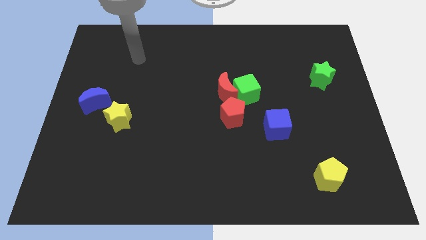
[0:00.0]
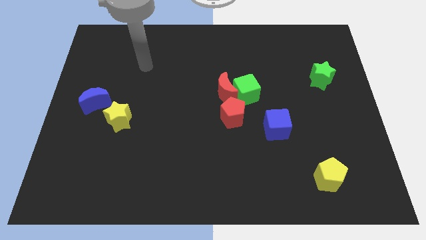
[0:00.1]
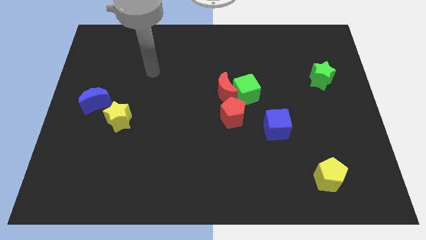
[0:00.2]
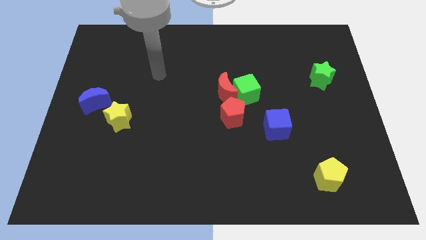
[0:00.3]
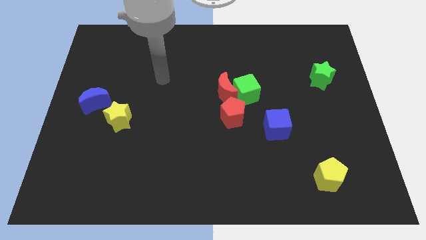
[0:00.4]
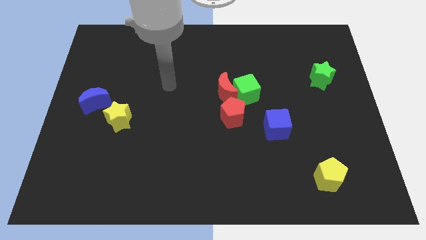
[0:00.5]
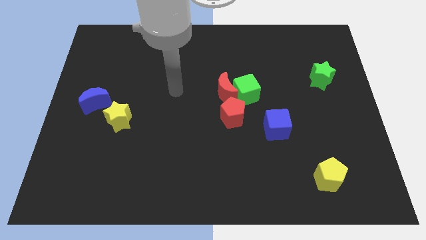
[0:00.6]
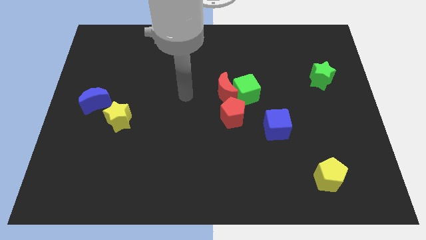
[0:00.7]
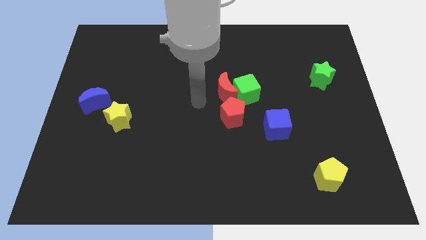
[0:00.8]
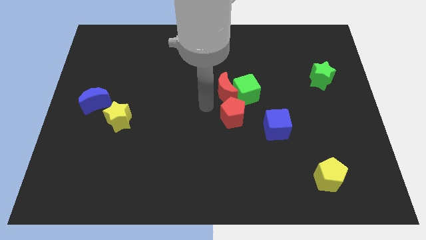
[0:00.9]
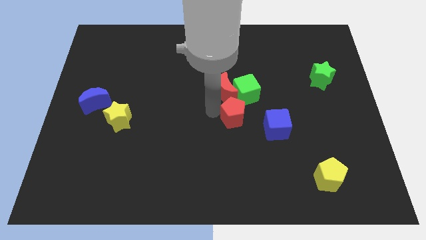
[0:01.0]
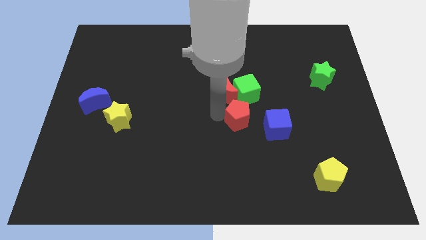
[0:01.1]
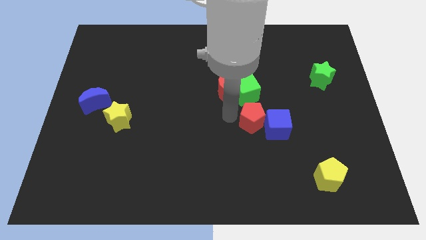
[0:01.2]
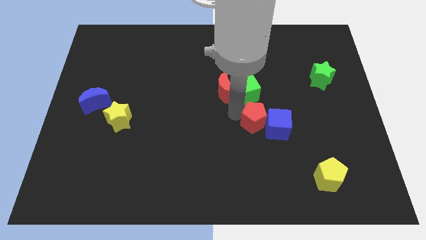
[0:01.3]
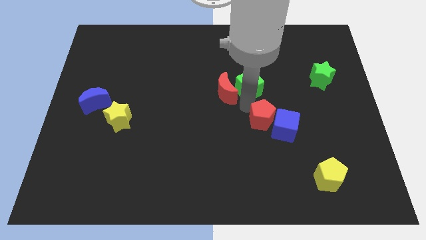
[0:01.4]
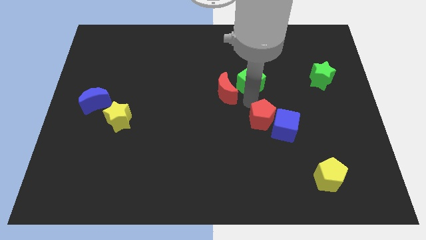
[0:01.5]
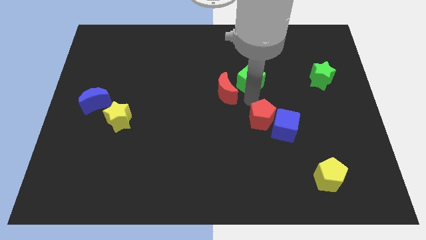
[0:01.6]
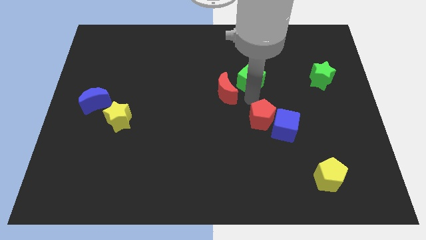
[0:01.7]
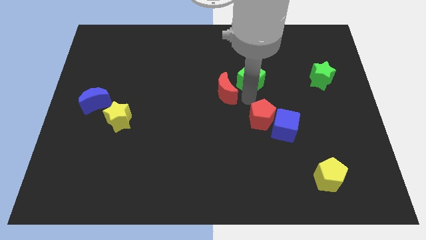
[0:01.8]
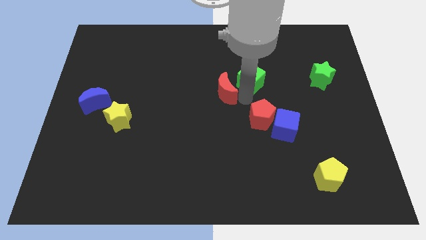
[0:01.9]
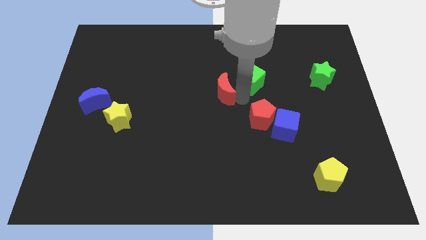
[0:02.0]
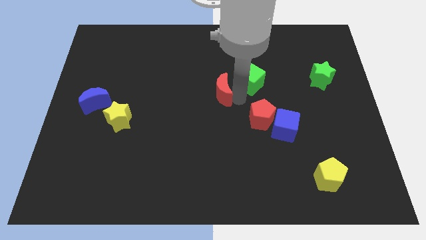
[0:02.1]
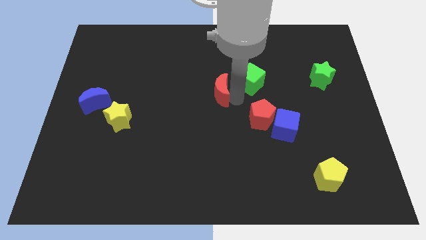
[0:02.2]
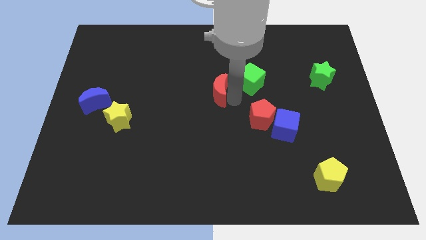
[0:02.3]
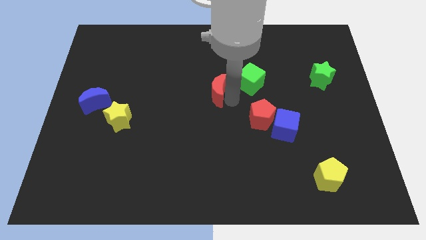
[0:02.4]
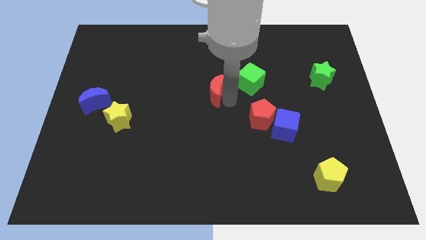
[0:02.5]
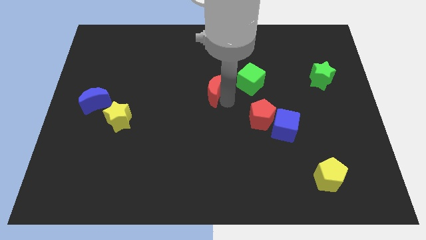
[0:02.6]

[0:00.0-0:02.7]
separate the red moon from the green cube and red pentagon

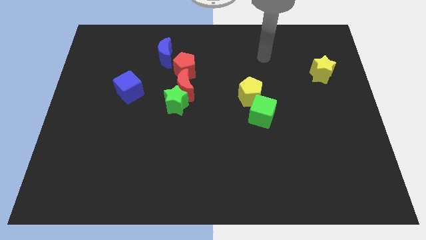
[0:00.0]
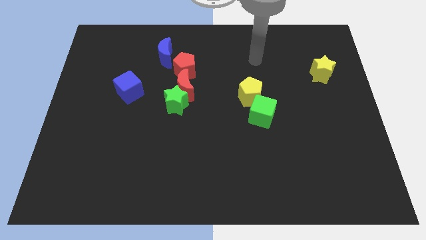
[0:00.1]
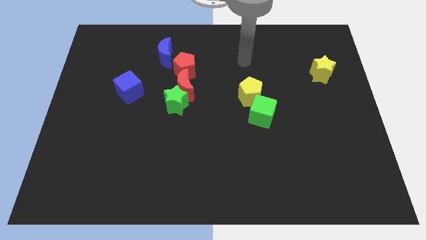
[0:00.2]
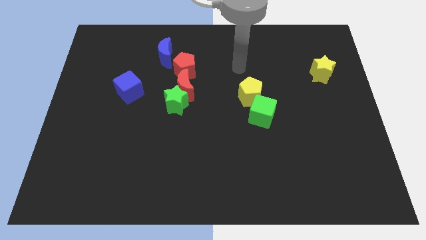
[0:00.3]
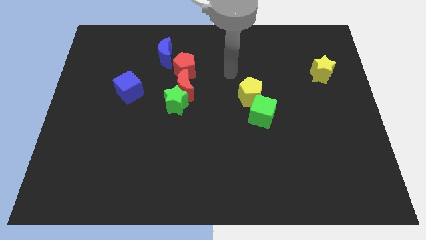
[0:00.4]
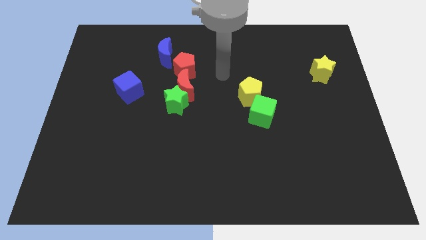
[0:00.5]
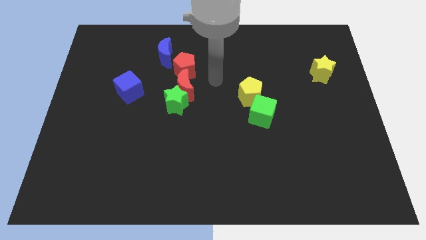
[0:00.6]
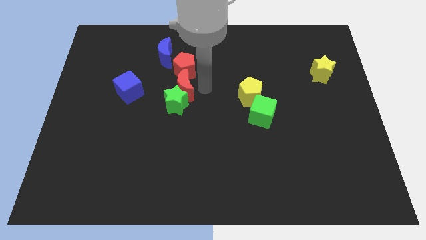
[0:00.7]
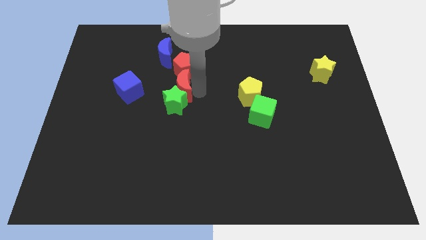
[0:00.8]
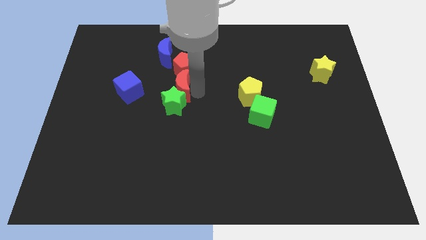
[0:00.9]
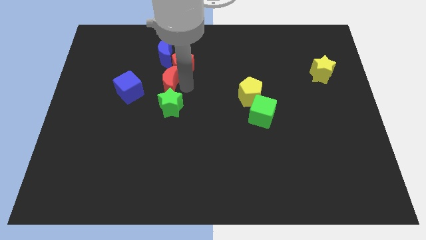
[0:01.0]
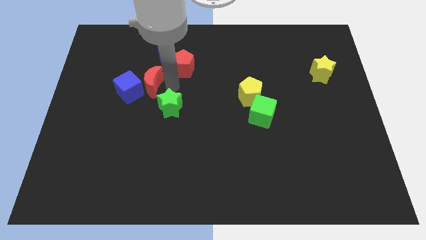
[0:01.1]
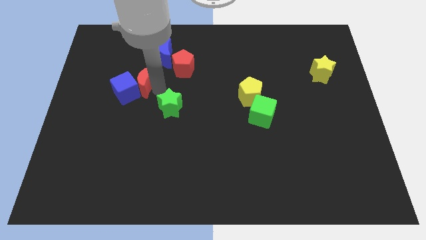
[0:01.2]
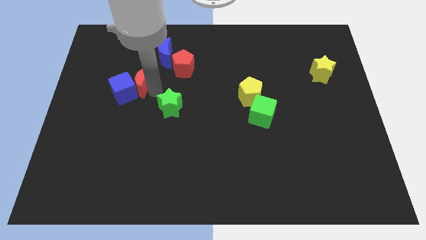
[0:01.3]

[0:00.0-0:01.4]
separate the green star from the red moon

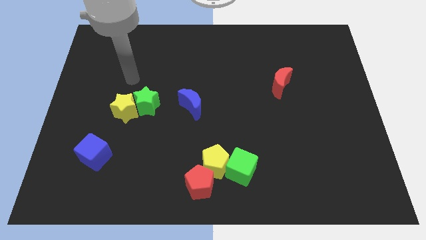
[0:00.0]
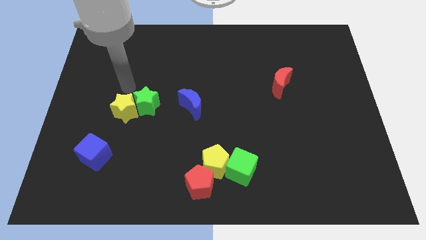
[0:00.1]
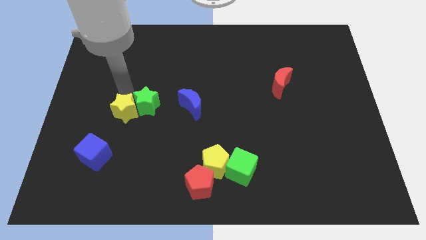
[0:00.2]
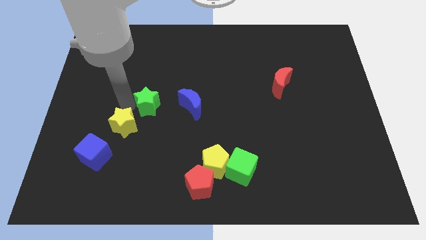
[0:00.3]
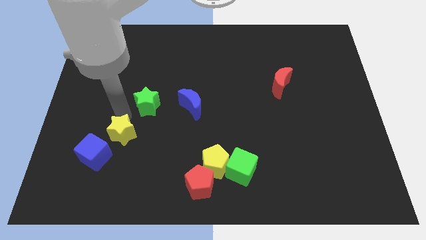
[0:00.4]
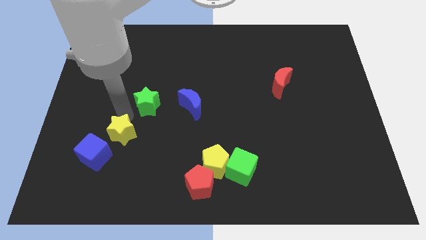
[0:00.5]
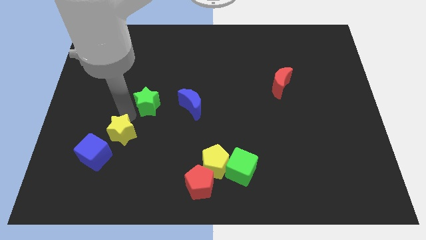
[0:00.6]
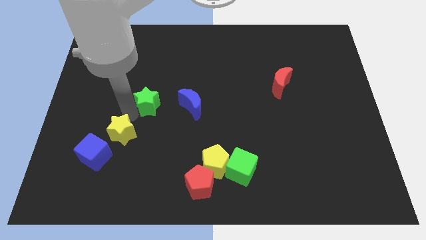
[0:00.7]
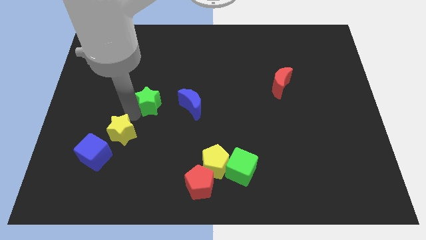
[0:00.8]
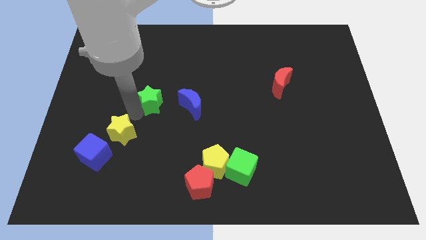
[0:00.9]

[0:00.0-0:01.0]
separate the green star from the yellow star

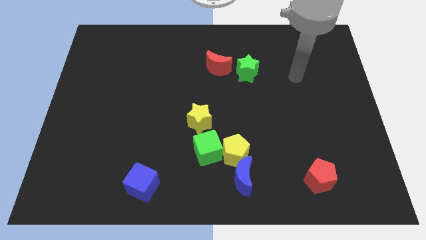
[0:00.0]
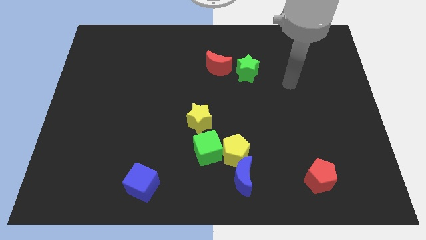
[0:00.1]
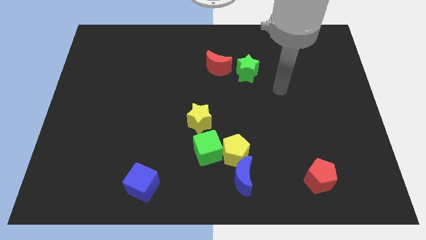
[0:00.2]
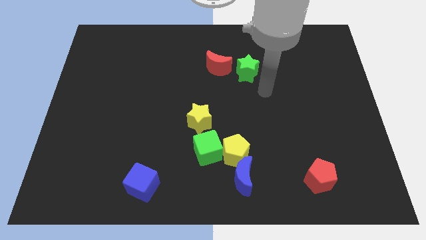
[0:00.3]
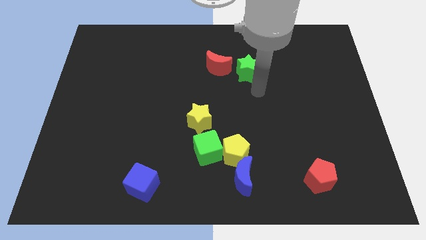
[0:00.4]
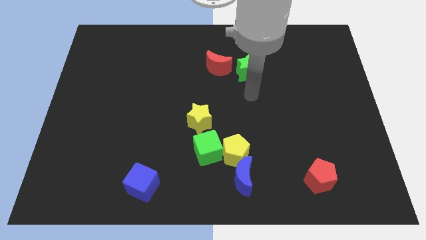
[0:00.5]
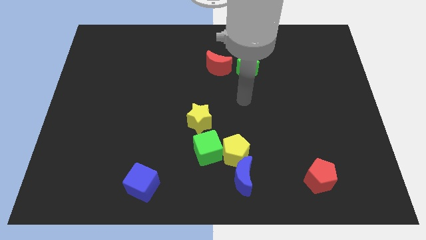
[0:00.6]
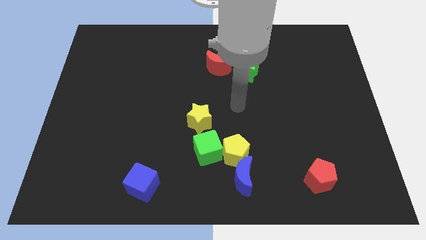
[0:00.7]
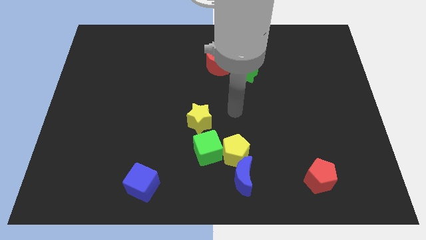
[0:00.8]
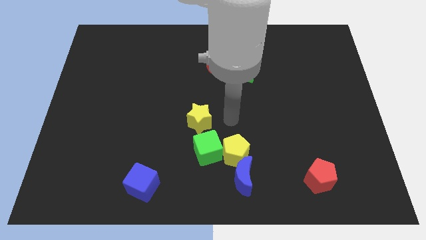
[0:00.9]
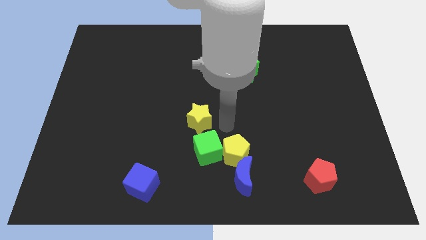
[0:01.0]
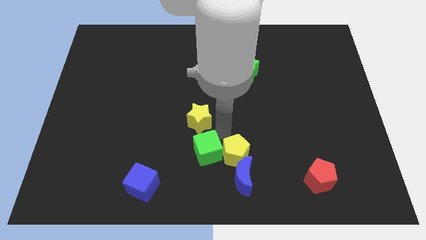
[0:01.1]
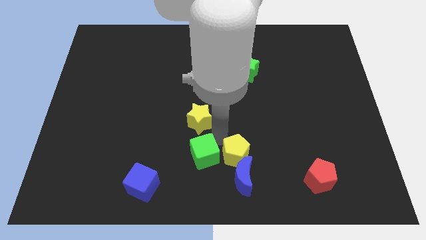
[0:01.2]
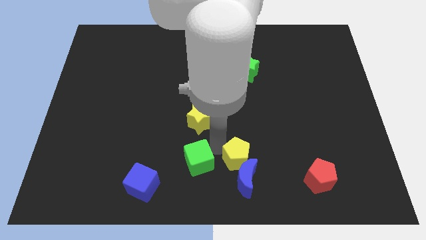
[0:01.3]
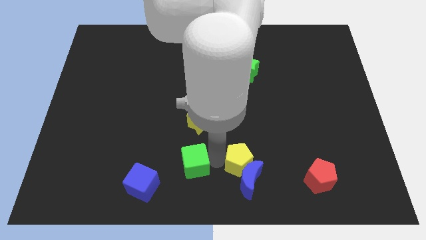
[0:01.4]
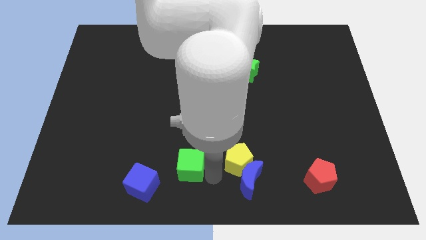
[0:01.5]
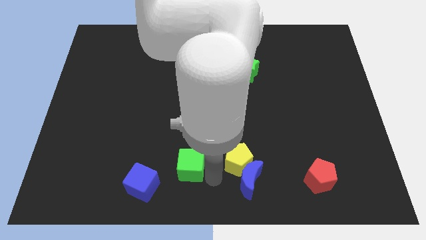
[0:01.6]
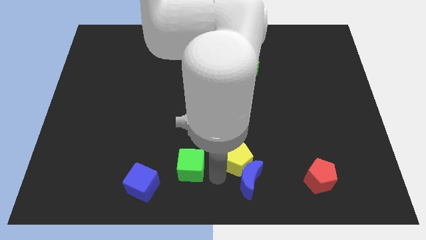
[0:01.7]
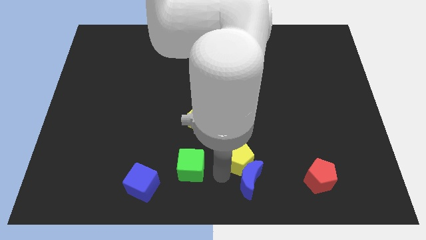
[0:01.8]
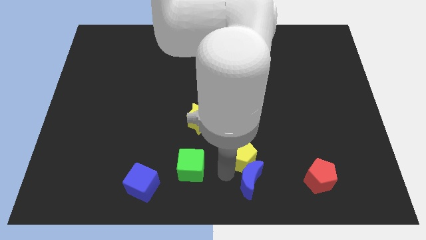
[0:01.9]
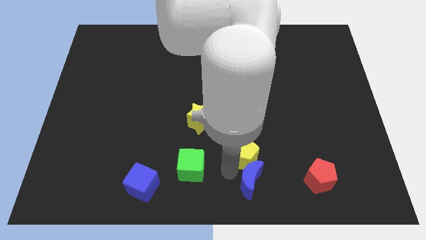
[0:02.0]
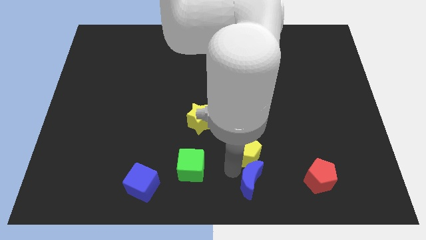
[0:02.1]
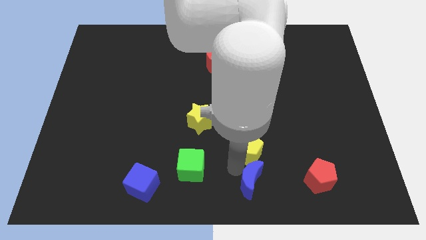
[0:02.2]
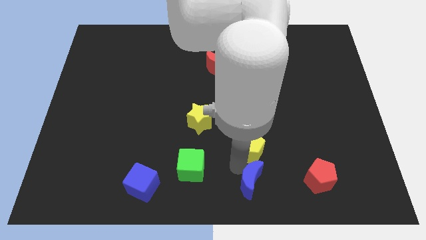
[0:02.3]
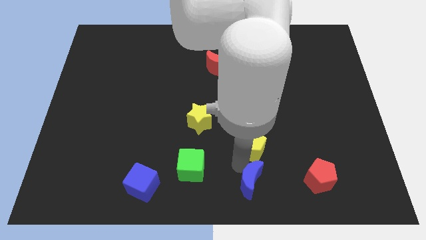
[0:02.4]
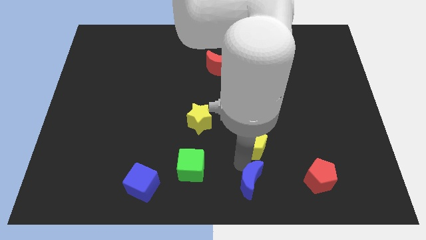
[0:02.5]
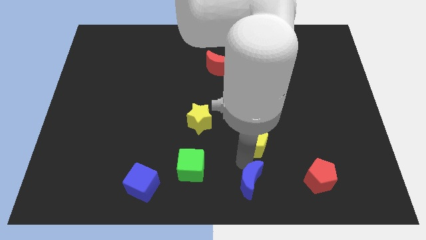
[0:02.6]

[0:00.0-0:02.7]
move the yellow pentagon away from the green cube and blue moon

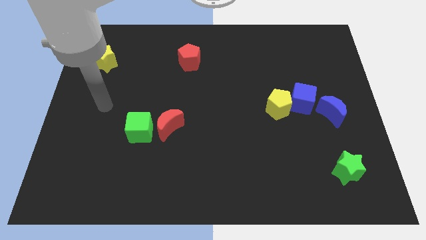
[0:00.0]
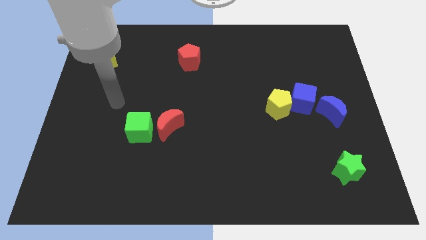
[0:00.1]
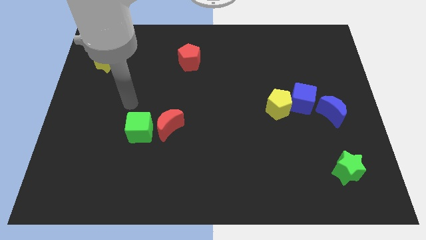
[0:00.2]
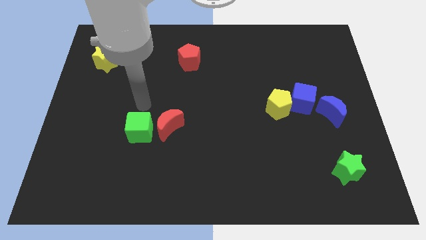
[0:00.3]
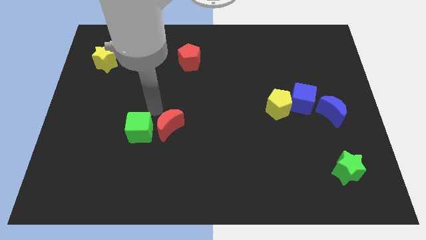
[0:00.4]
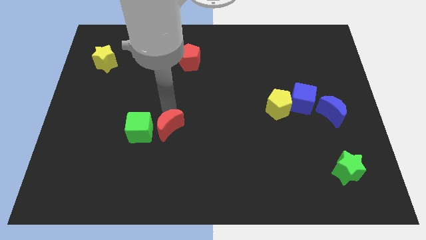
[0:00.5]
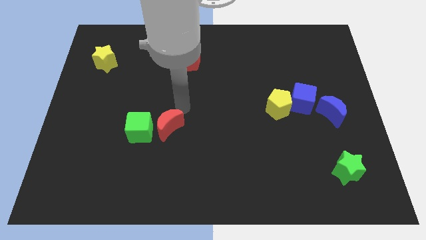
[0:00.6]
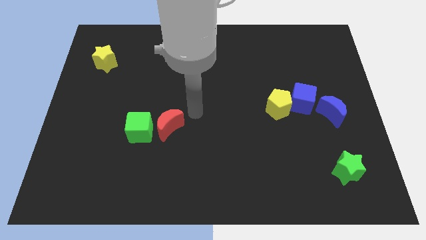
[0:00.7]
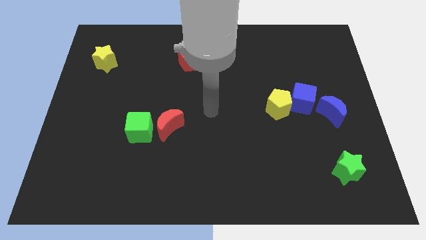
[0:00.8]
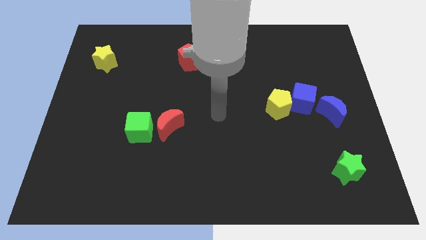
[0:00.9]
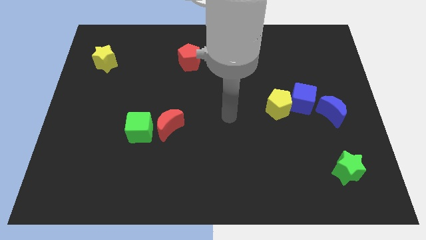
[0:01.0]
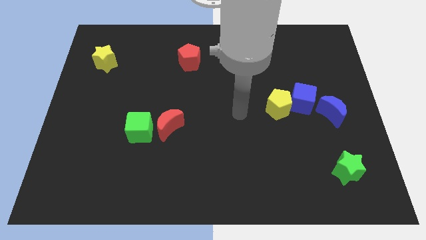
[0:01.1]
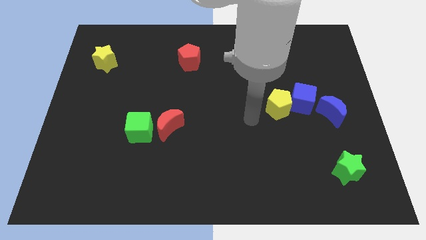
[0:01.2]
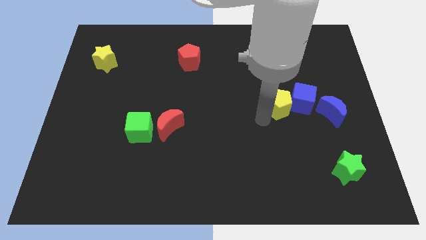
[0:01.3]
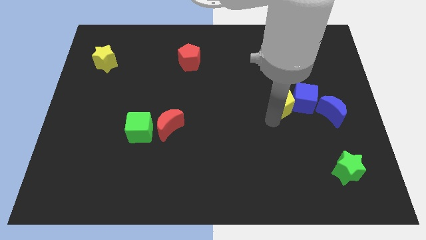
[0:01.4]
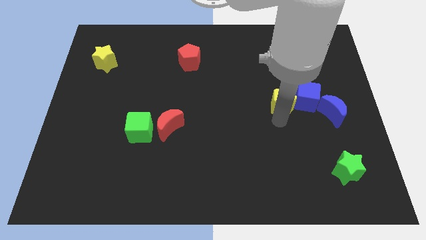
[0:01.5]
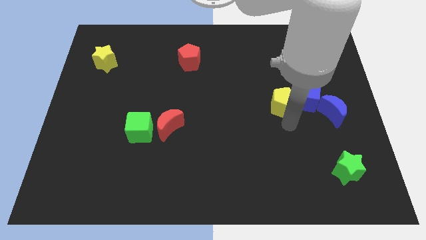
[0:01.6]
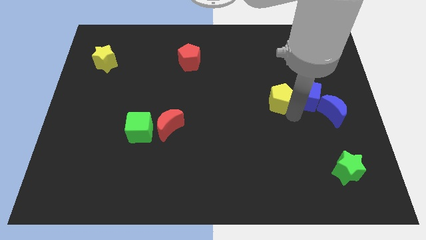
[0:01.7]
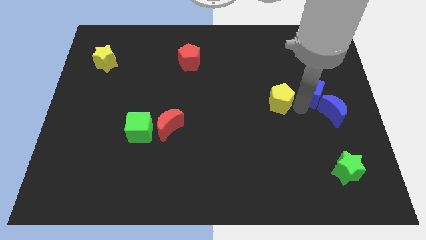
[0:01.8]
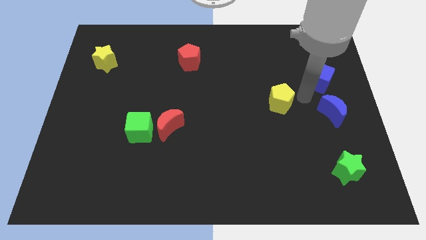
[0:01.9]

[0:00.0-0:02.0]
move the yellow pentagon away from the blue cube
